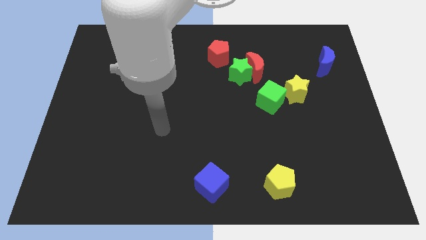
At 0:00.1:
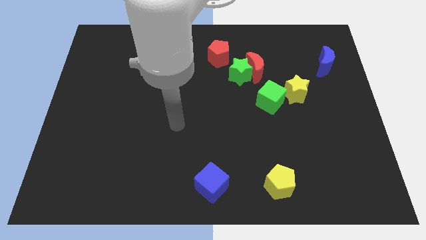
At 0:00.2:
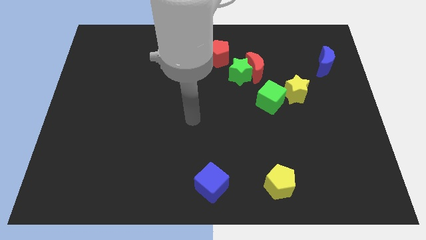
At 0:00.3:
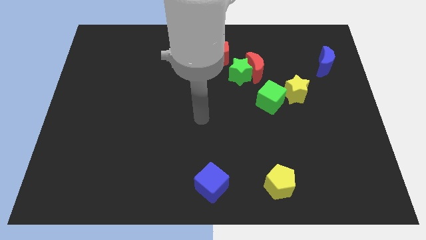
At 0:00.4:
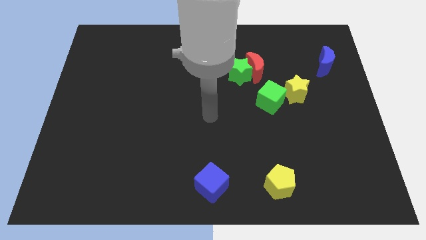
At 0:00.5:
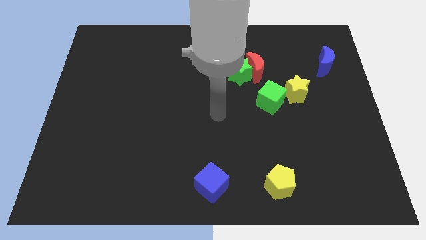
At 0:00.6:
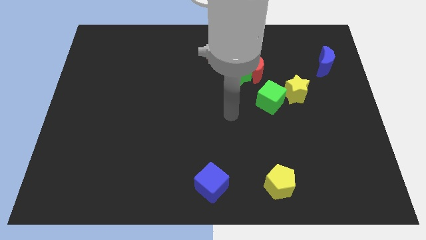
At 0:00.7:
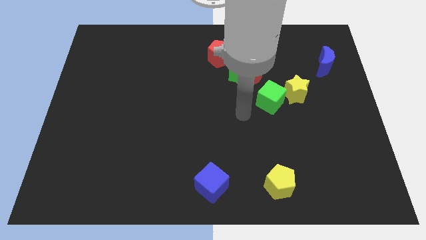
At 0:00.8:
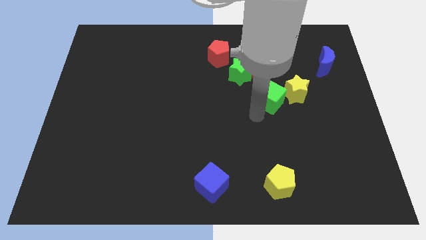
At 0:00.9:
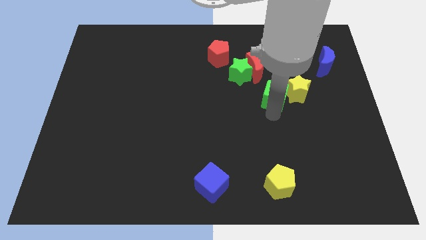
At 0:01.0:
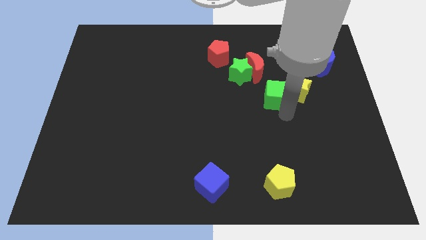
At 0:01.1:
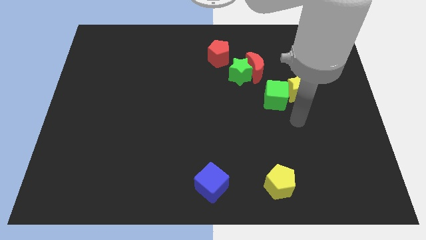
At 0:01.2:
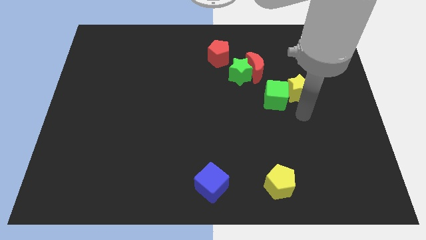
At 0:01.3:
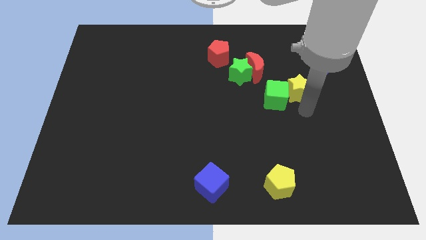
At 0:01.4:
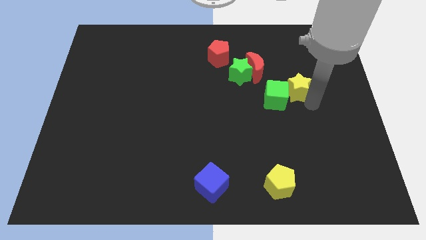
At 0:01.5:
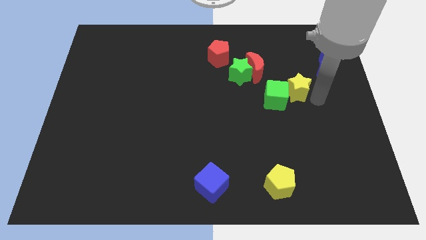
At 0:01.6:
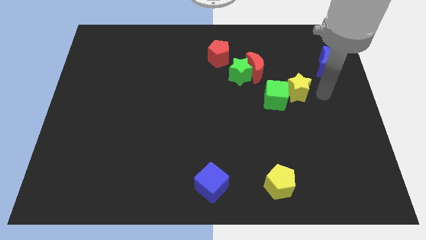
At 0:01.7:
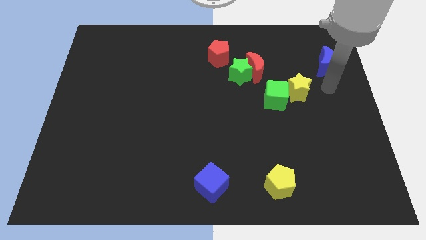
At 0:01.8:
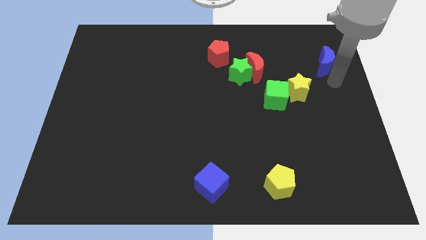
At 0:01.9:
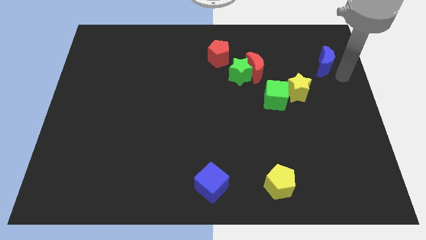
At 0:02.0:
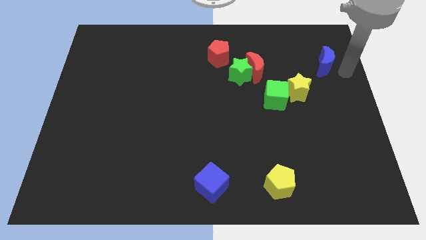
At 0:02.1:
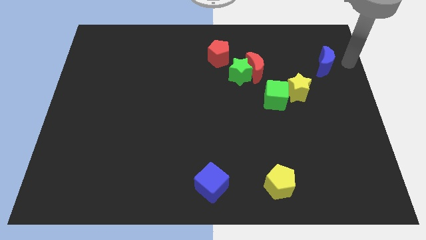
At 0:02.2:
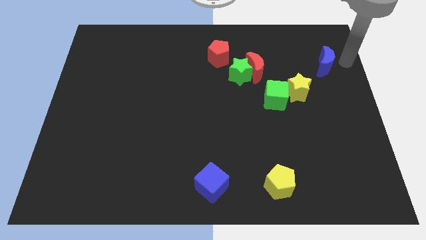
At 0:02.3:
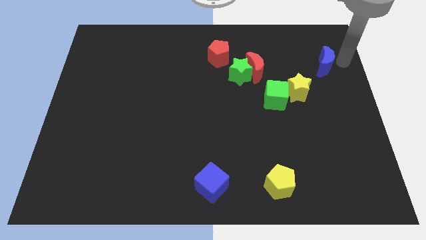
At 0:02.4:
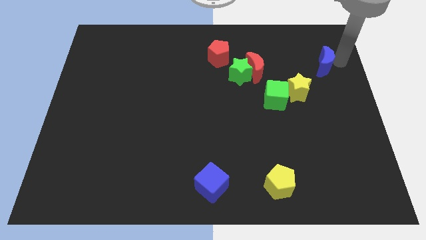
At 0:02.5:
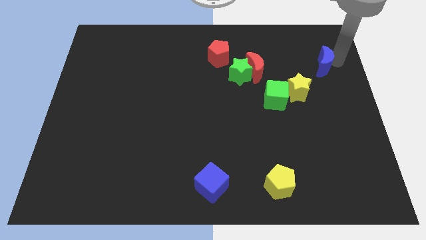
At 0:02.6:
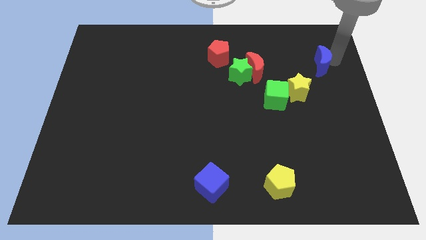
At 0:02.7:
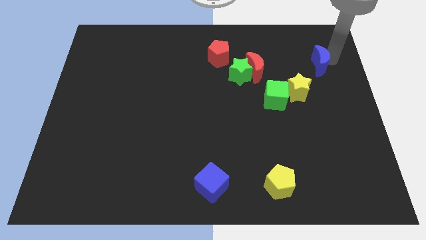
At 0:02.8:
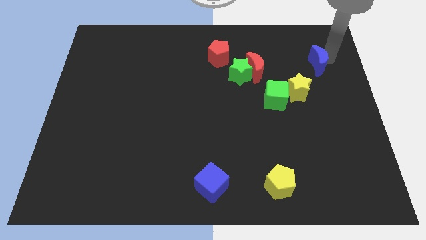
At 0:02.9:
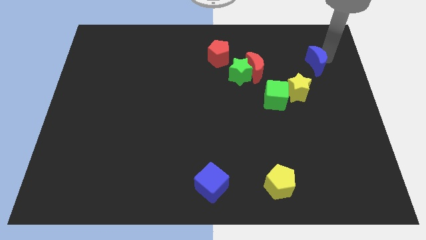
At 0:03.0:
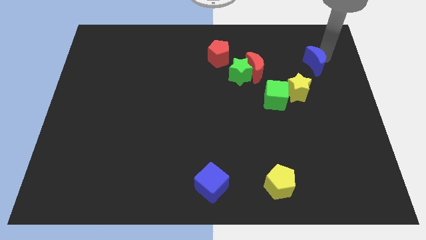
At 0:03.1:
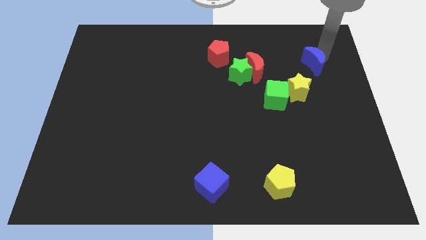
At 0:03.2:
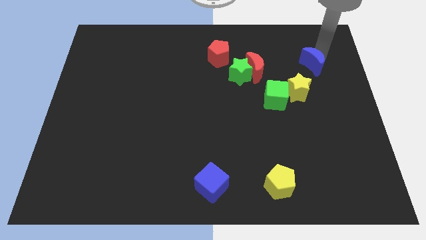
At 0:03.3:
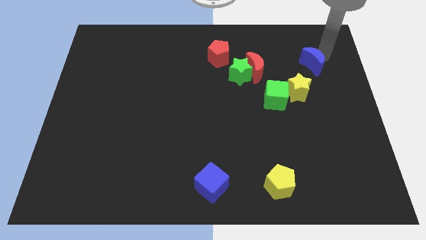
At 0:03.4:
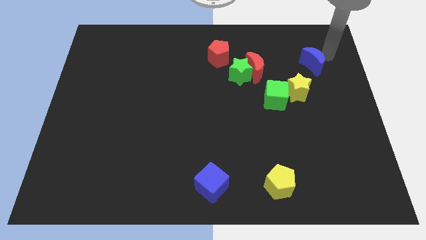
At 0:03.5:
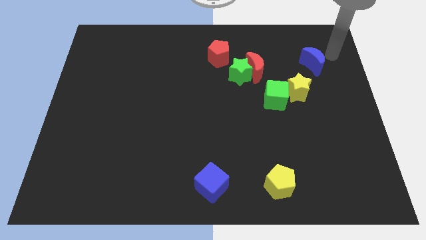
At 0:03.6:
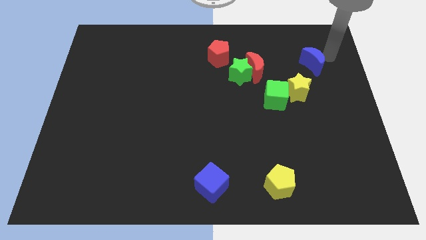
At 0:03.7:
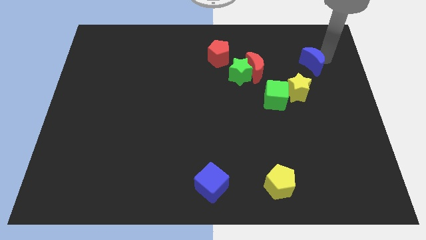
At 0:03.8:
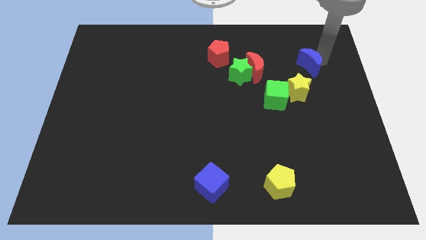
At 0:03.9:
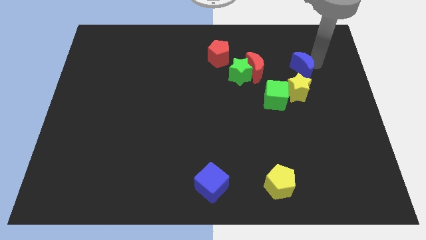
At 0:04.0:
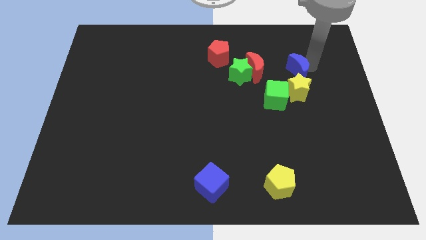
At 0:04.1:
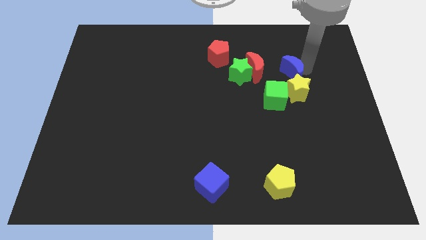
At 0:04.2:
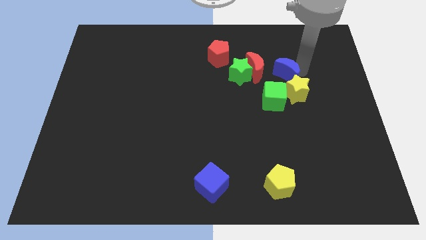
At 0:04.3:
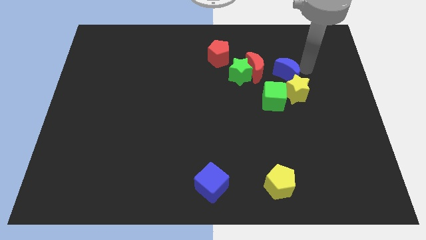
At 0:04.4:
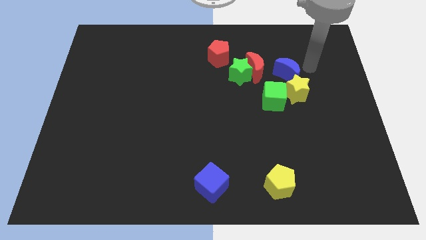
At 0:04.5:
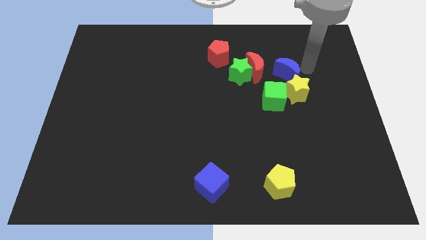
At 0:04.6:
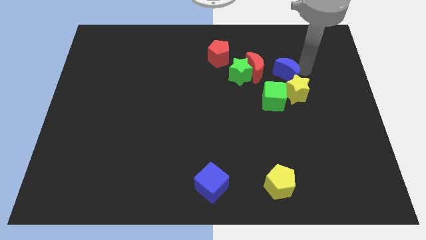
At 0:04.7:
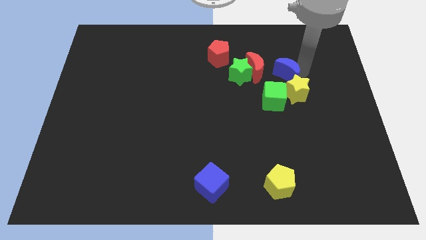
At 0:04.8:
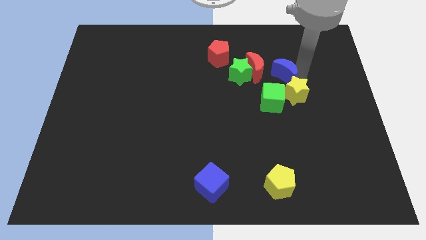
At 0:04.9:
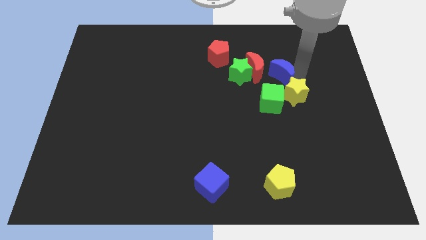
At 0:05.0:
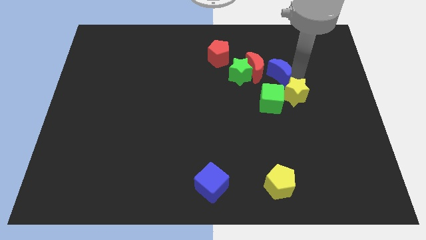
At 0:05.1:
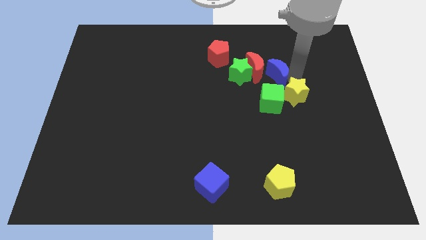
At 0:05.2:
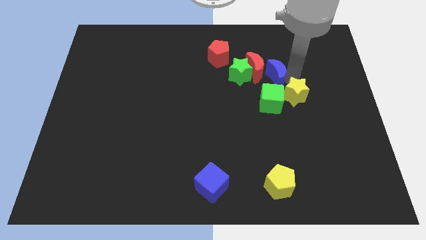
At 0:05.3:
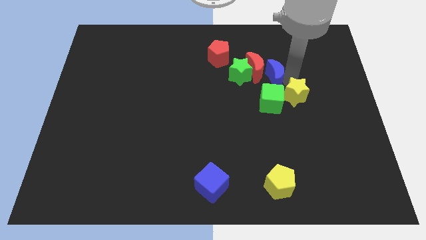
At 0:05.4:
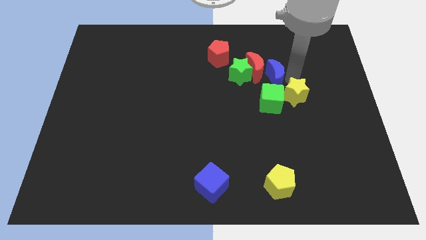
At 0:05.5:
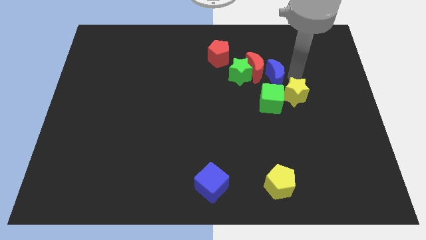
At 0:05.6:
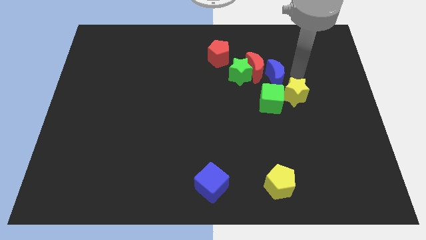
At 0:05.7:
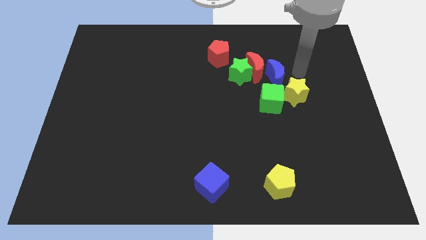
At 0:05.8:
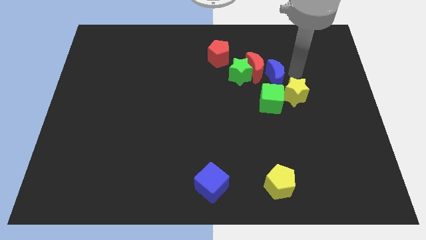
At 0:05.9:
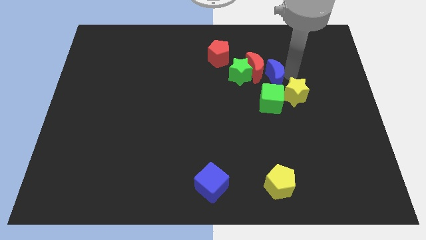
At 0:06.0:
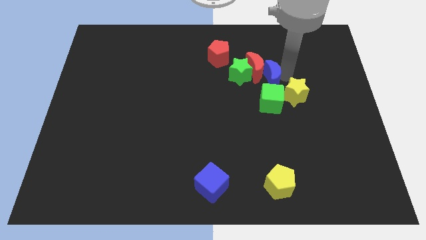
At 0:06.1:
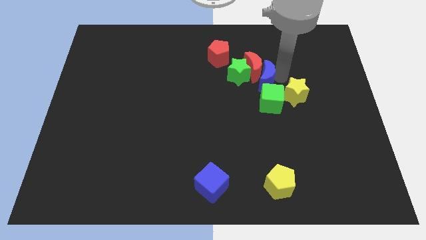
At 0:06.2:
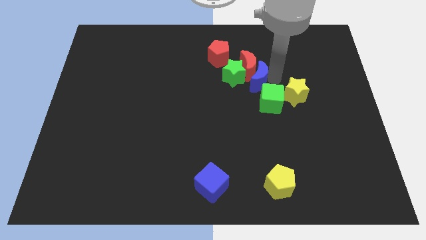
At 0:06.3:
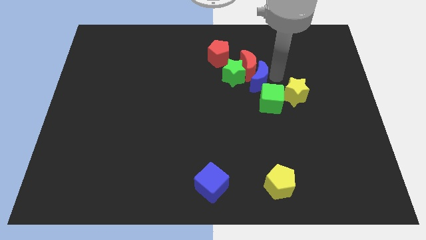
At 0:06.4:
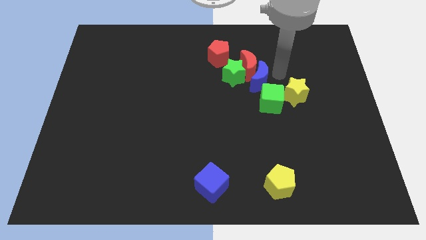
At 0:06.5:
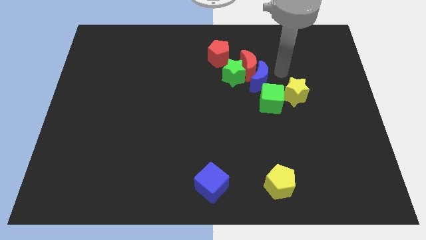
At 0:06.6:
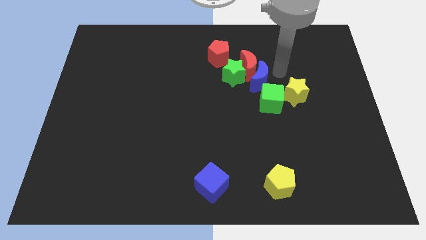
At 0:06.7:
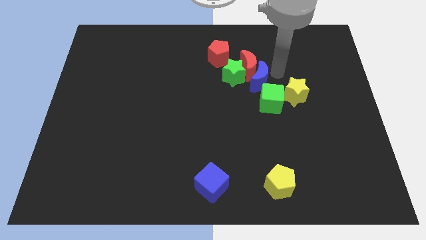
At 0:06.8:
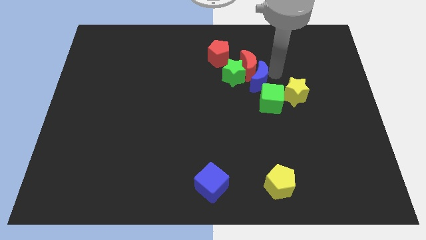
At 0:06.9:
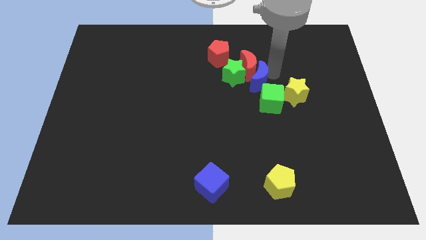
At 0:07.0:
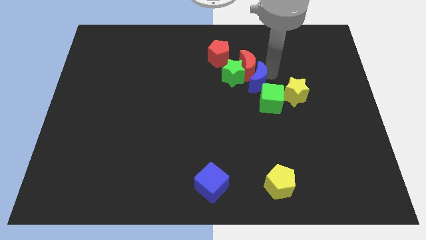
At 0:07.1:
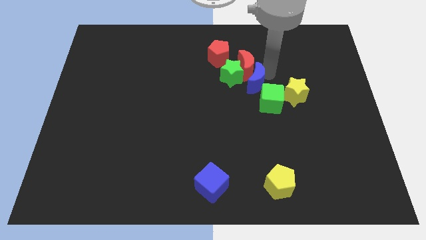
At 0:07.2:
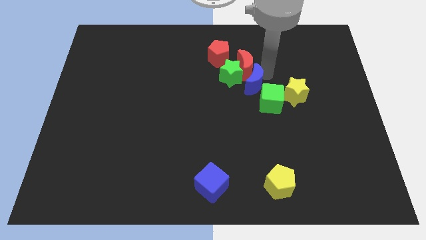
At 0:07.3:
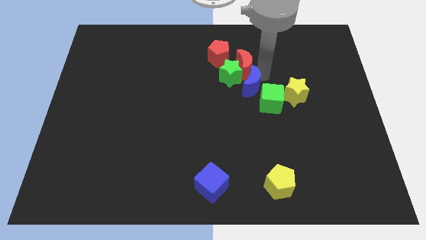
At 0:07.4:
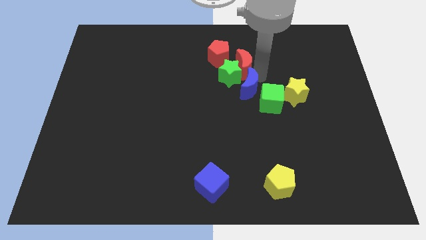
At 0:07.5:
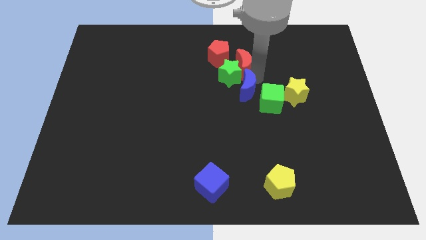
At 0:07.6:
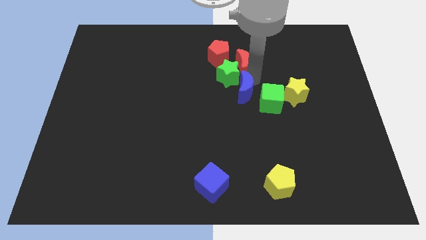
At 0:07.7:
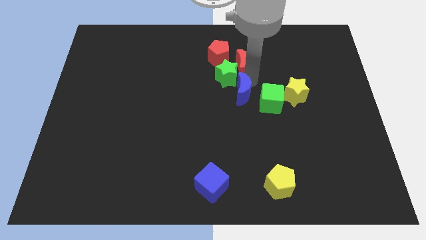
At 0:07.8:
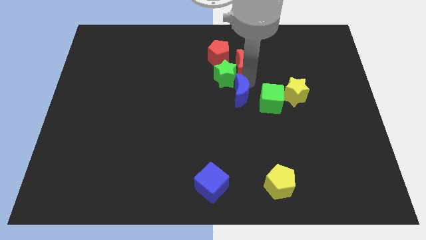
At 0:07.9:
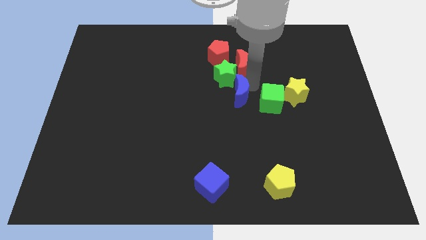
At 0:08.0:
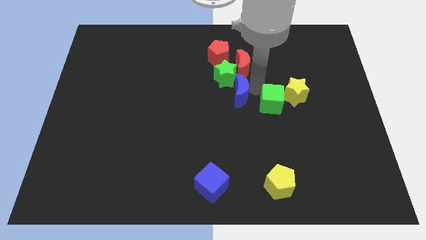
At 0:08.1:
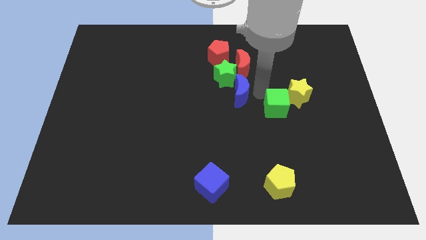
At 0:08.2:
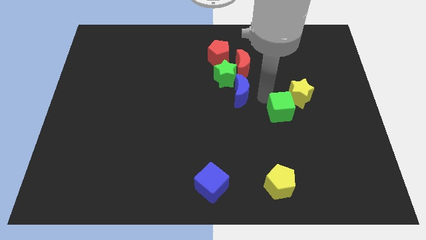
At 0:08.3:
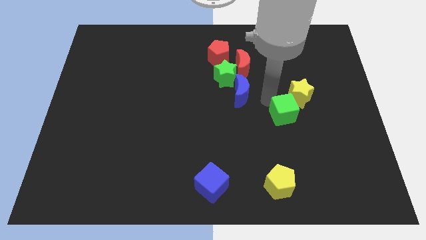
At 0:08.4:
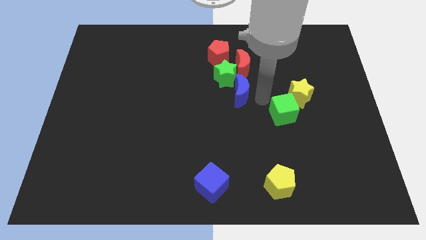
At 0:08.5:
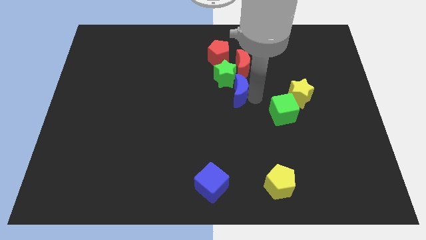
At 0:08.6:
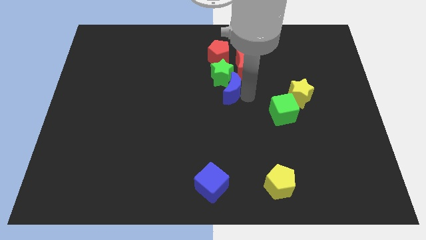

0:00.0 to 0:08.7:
slide the blue moon left
